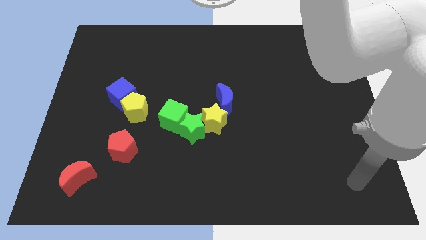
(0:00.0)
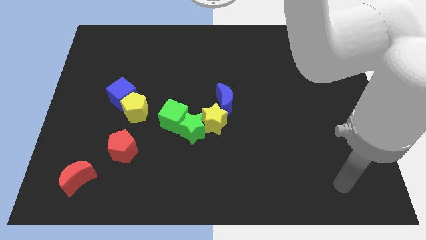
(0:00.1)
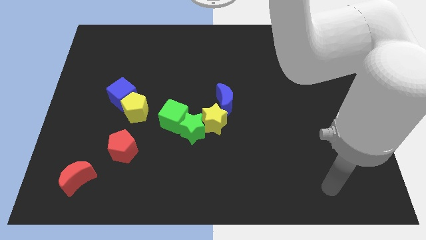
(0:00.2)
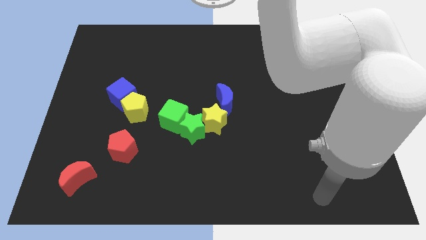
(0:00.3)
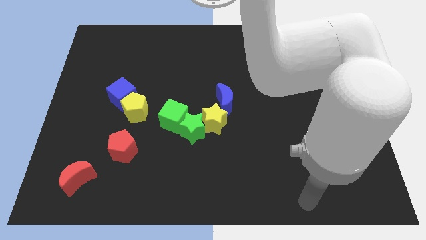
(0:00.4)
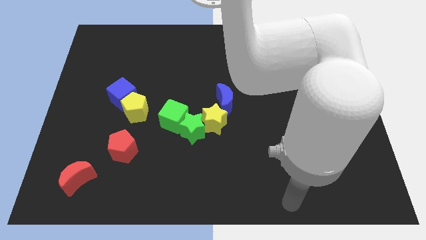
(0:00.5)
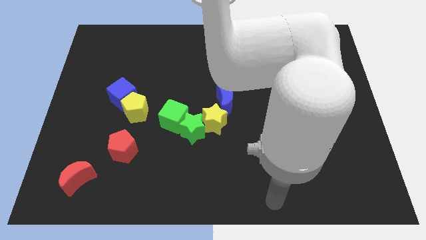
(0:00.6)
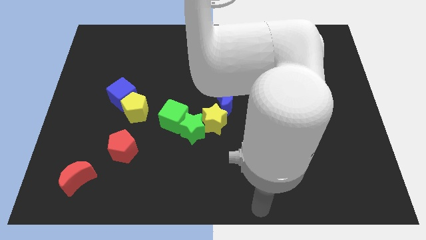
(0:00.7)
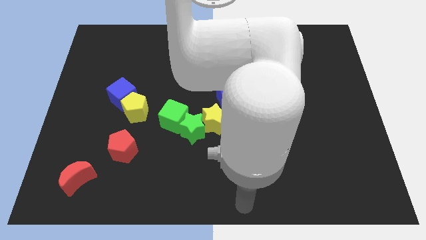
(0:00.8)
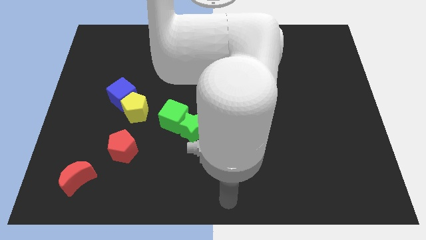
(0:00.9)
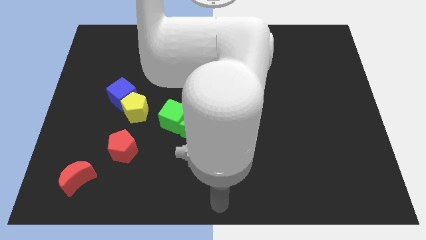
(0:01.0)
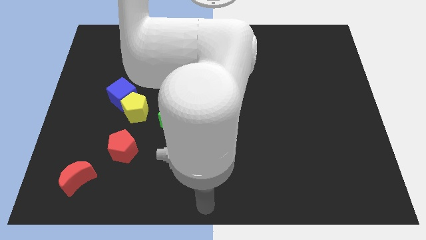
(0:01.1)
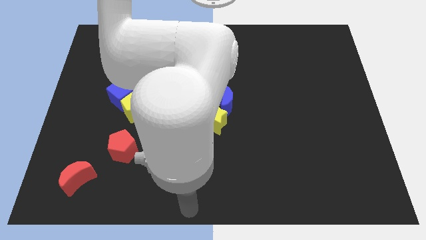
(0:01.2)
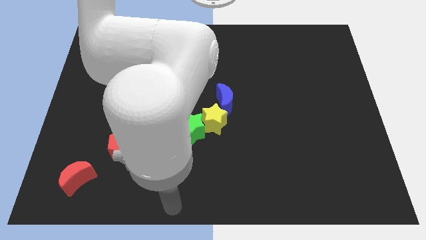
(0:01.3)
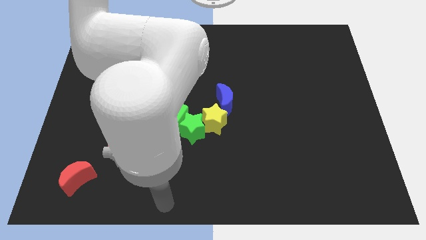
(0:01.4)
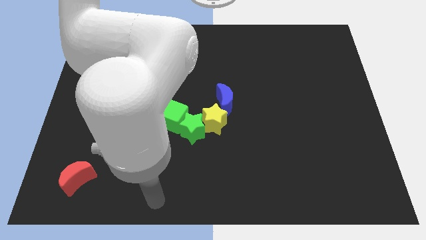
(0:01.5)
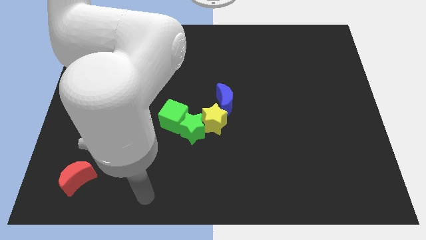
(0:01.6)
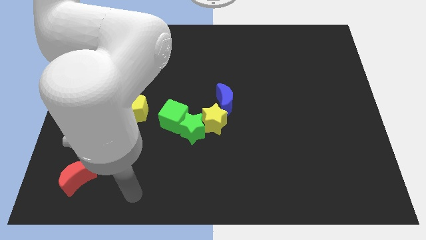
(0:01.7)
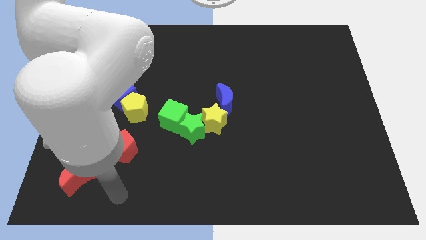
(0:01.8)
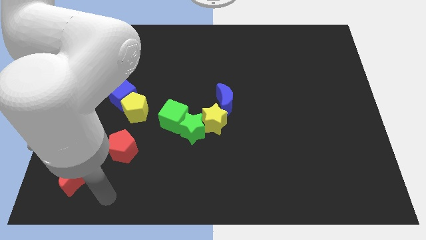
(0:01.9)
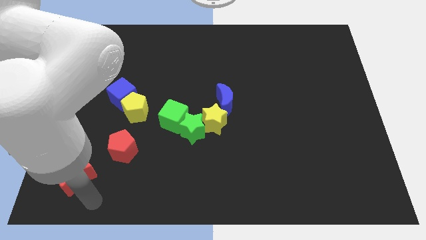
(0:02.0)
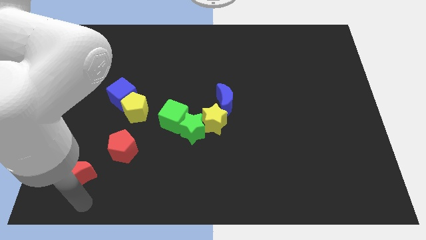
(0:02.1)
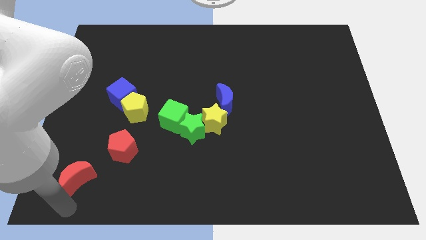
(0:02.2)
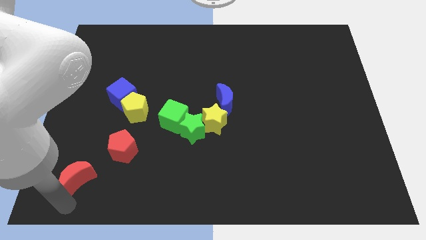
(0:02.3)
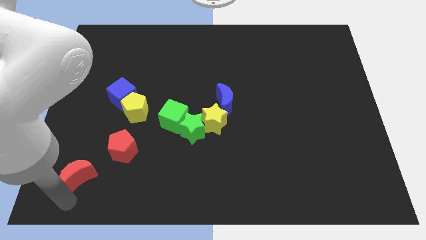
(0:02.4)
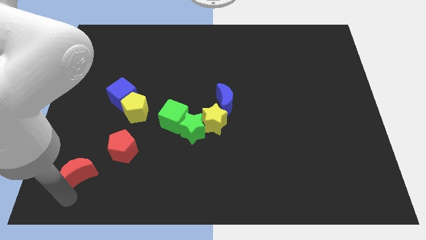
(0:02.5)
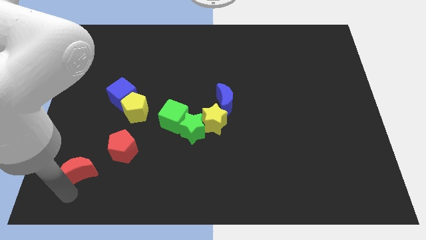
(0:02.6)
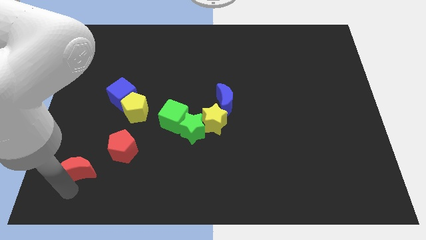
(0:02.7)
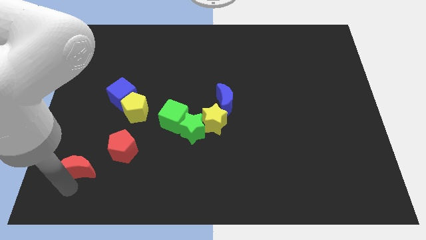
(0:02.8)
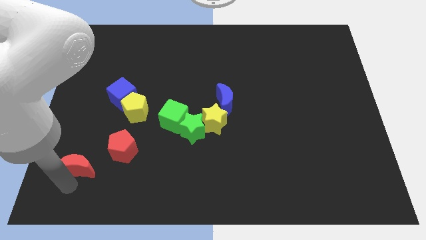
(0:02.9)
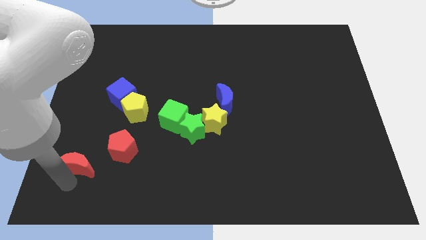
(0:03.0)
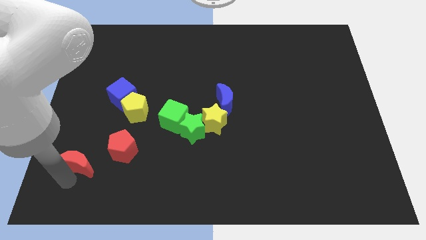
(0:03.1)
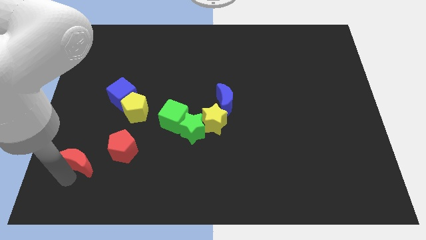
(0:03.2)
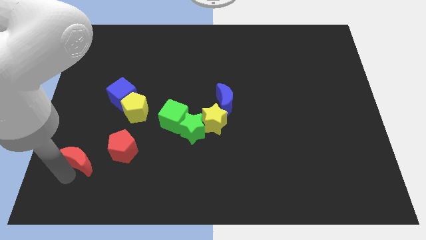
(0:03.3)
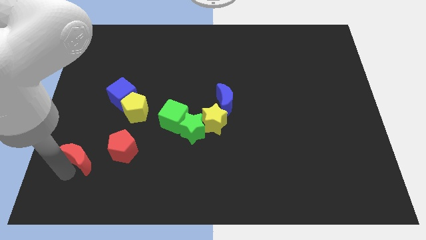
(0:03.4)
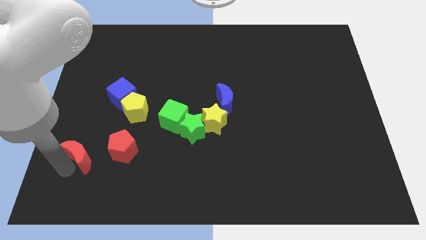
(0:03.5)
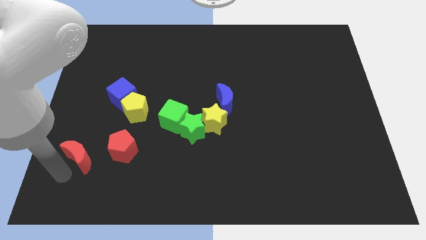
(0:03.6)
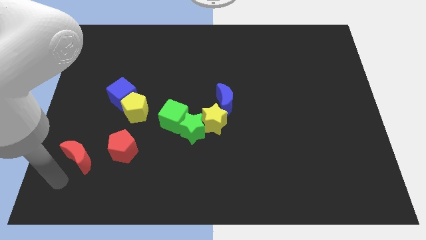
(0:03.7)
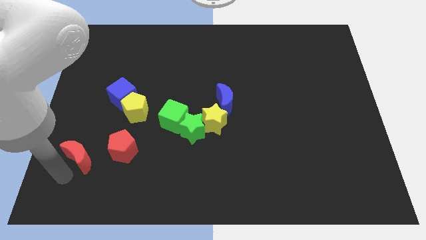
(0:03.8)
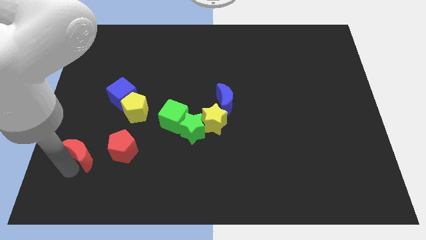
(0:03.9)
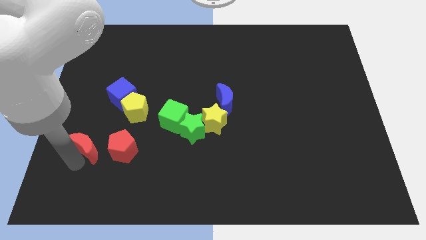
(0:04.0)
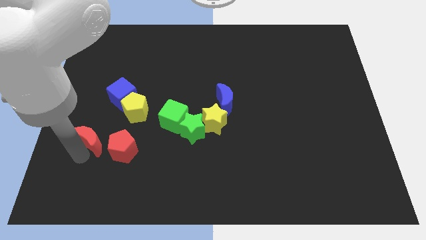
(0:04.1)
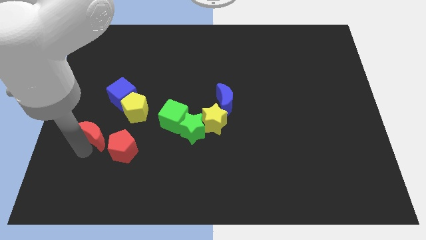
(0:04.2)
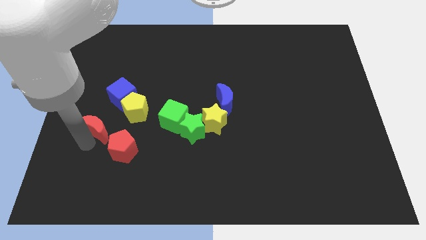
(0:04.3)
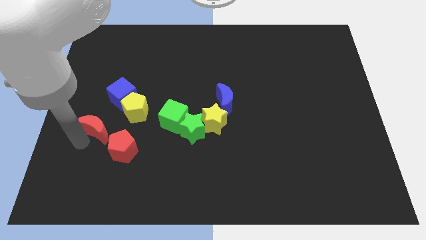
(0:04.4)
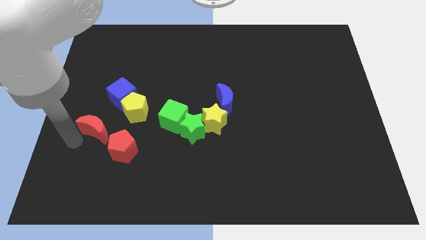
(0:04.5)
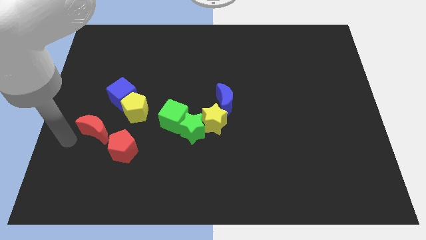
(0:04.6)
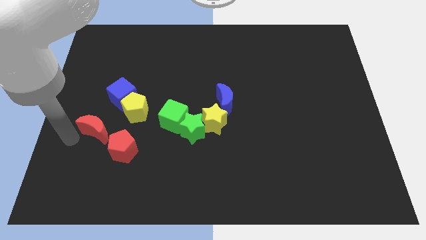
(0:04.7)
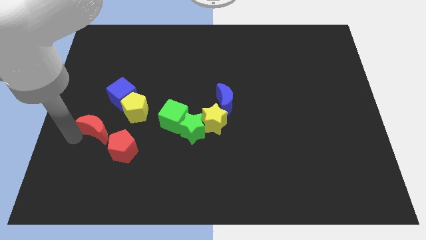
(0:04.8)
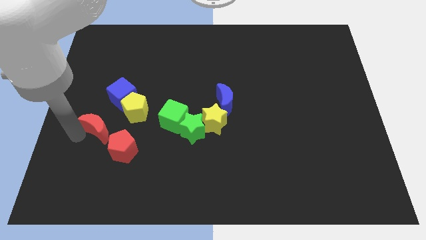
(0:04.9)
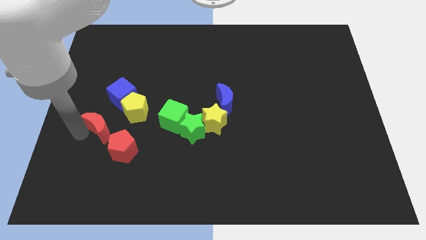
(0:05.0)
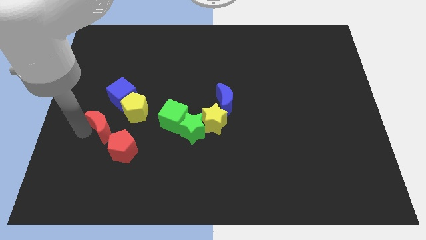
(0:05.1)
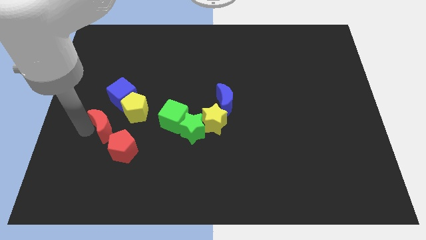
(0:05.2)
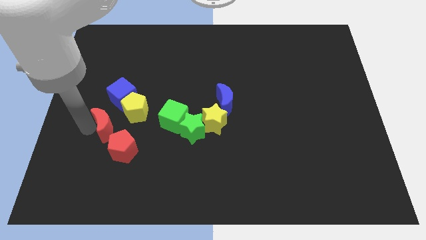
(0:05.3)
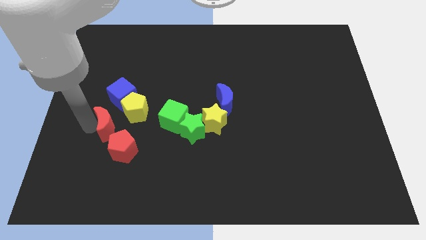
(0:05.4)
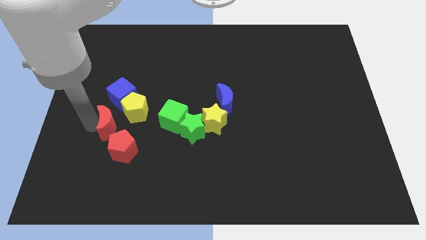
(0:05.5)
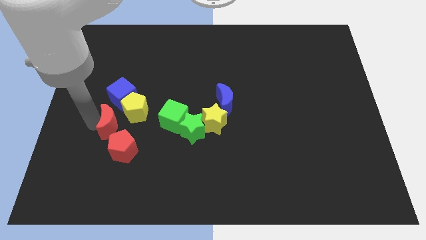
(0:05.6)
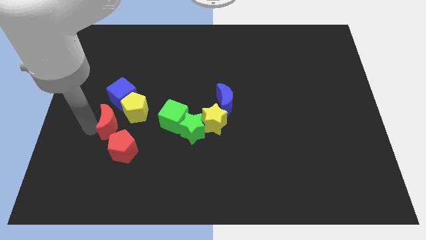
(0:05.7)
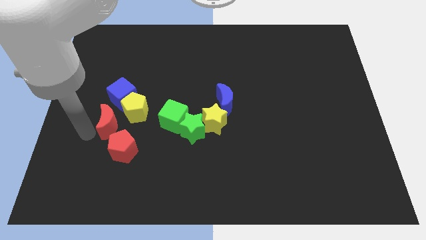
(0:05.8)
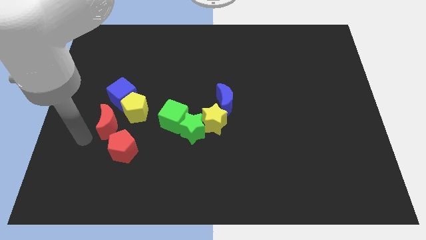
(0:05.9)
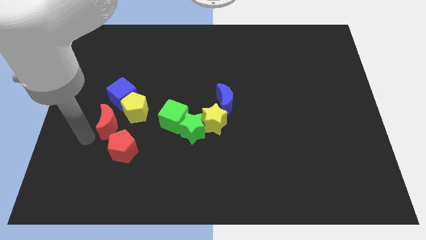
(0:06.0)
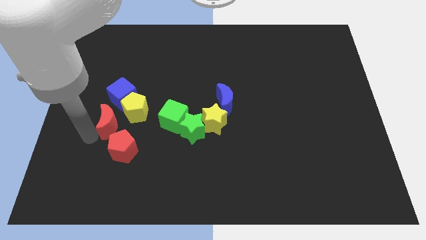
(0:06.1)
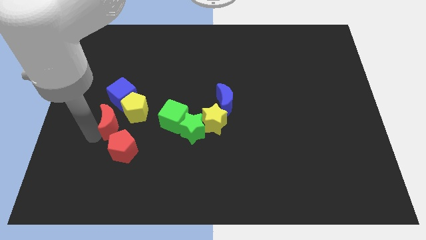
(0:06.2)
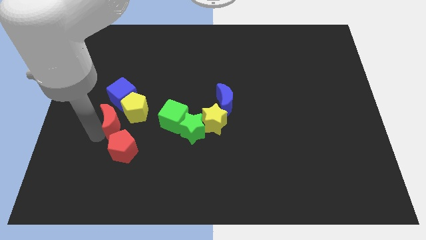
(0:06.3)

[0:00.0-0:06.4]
move the red moon towards the yellow pentagon

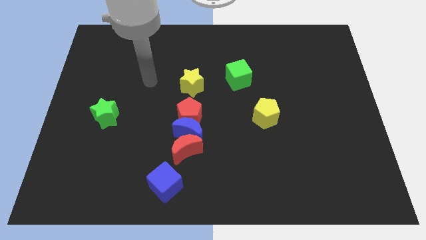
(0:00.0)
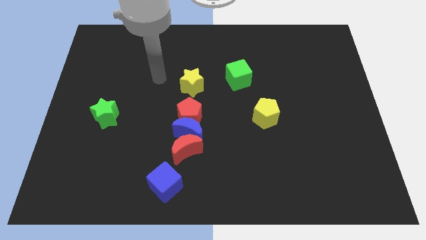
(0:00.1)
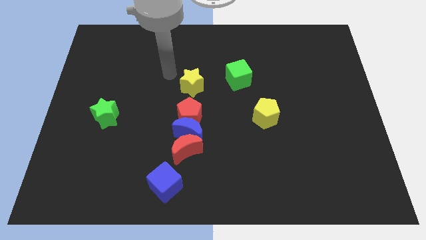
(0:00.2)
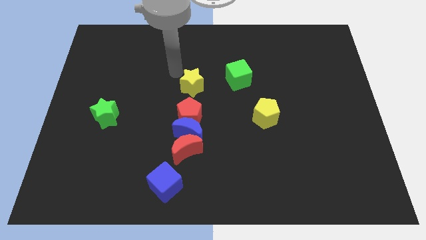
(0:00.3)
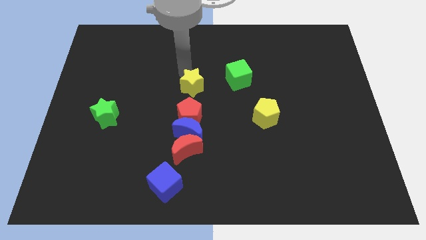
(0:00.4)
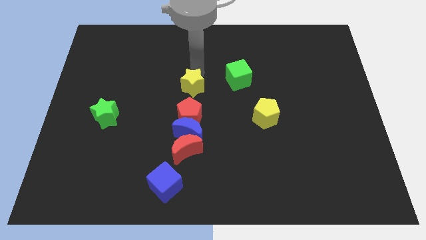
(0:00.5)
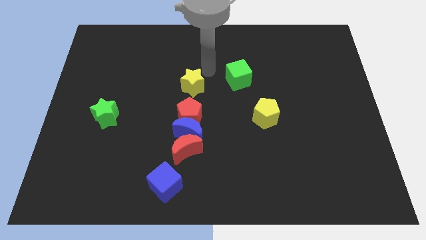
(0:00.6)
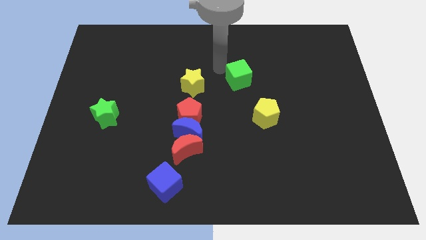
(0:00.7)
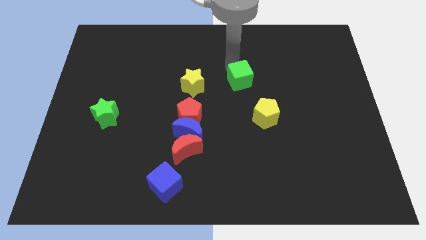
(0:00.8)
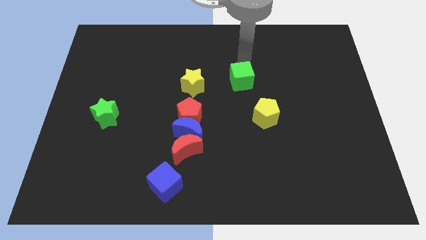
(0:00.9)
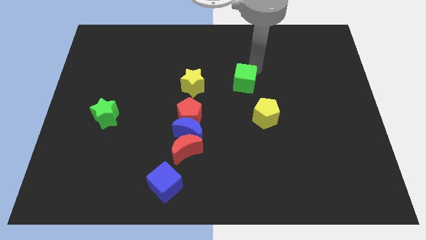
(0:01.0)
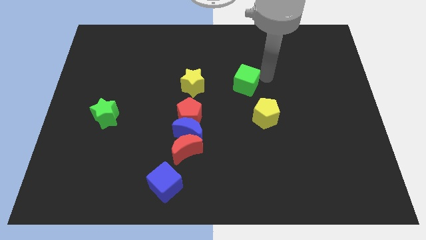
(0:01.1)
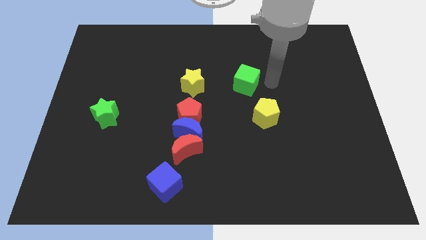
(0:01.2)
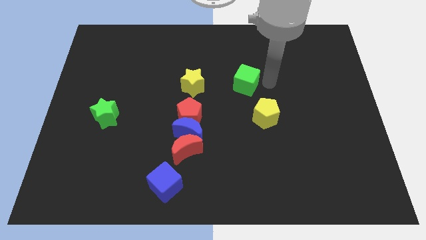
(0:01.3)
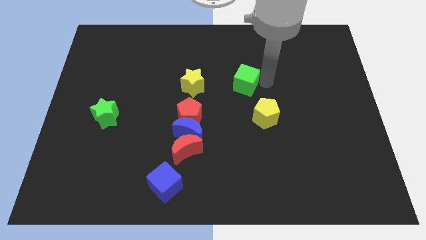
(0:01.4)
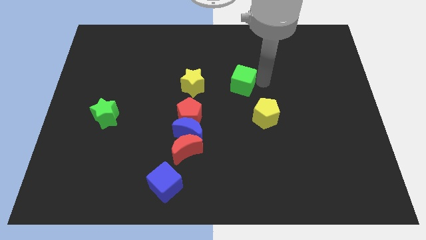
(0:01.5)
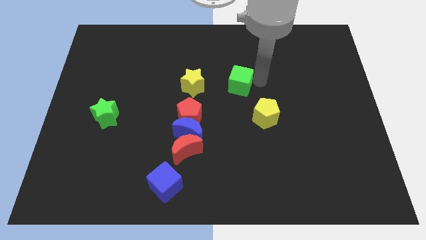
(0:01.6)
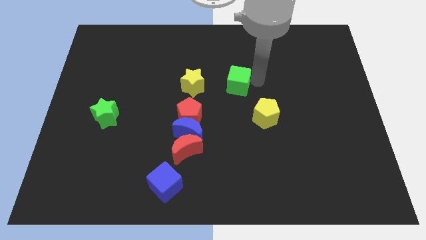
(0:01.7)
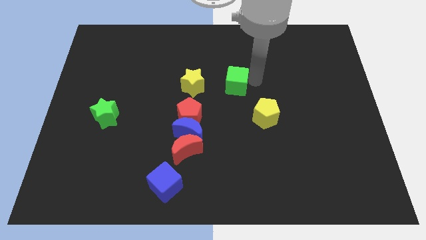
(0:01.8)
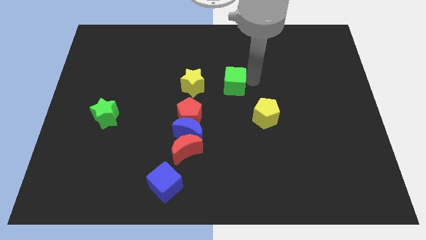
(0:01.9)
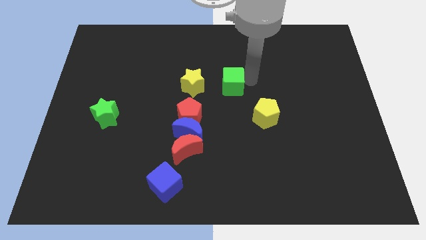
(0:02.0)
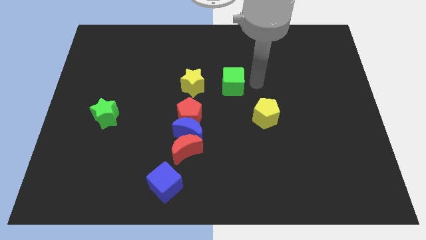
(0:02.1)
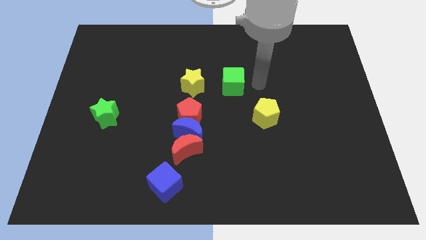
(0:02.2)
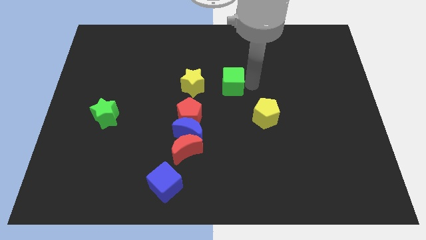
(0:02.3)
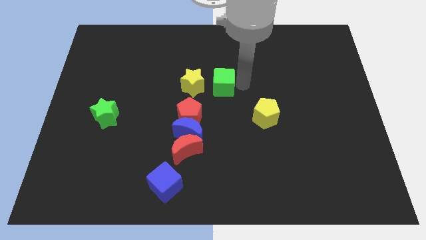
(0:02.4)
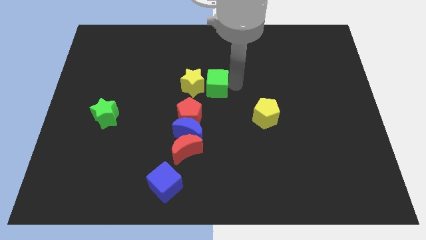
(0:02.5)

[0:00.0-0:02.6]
push the green cube towards the yellow star
